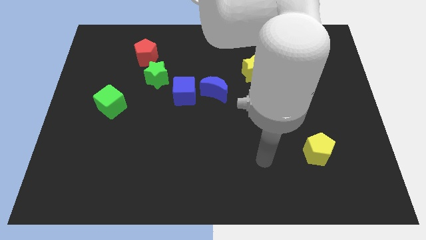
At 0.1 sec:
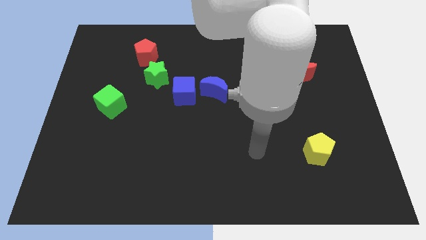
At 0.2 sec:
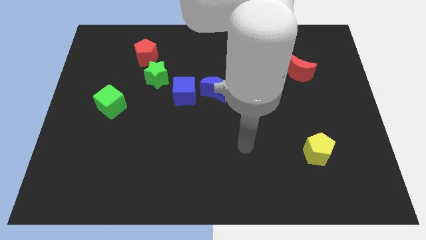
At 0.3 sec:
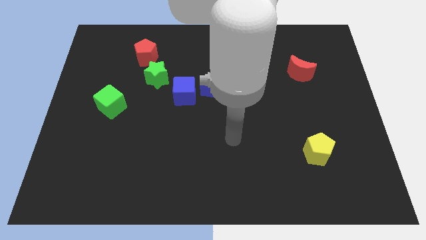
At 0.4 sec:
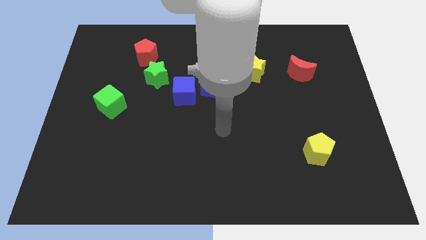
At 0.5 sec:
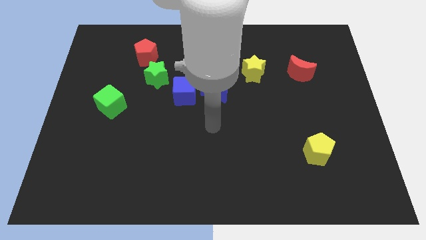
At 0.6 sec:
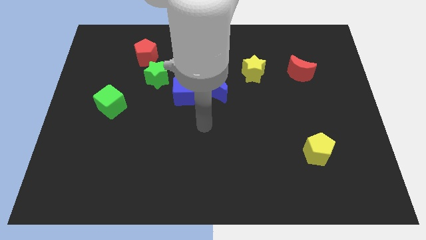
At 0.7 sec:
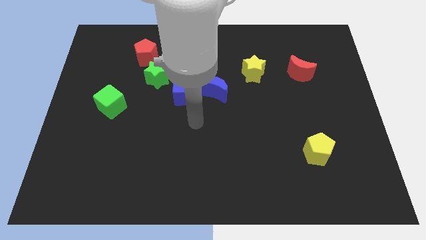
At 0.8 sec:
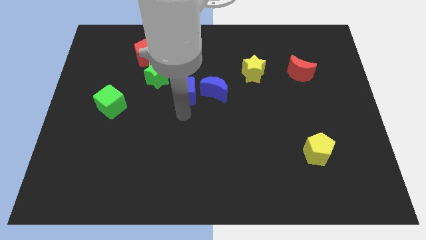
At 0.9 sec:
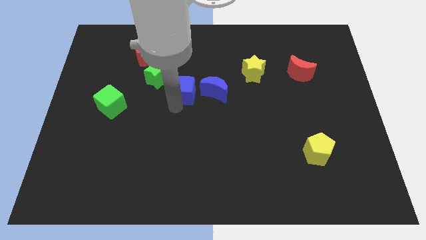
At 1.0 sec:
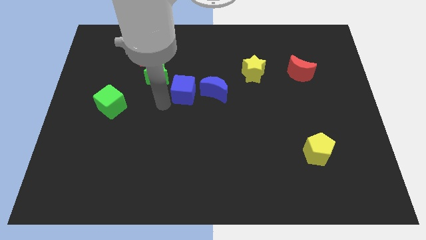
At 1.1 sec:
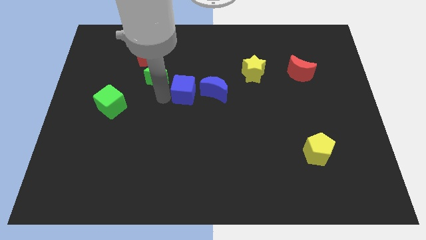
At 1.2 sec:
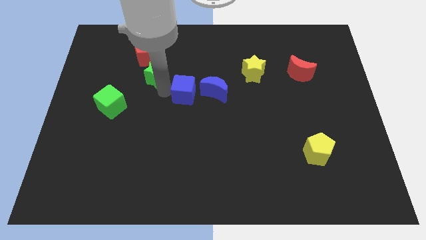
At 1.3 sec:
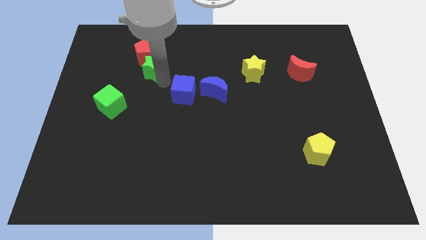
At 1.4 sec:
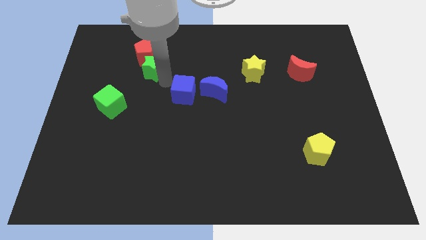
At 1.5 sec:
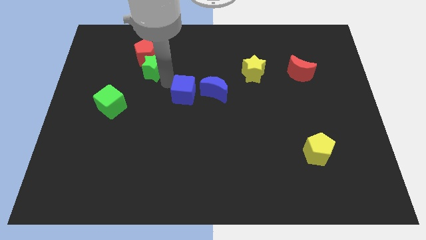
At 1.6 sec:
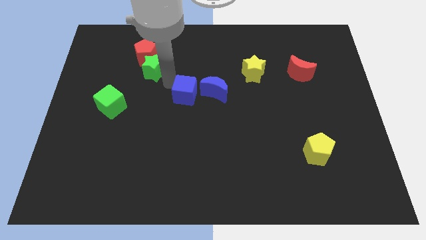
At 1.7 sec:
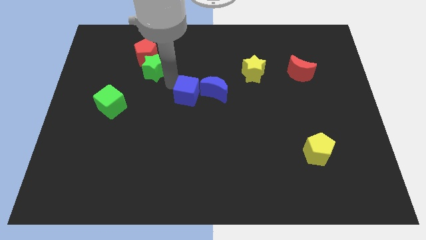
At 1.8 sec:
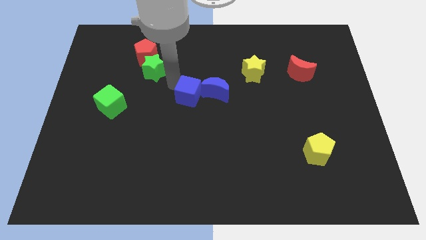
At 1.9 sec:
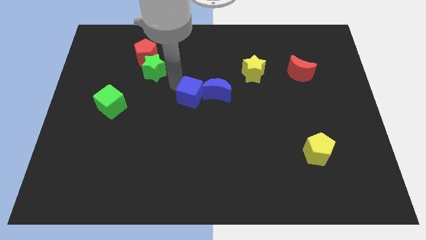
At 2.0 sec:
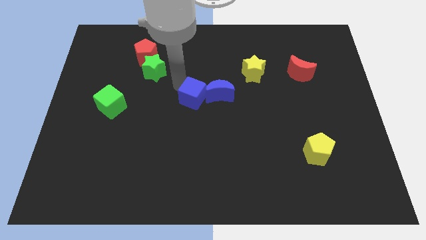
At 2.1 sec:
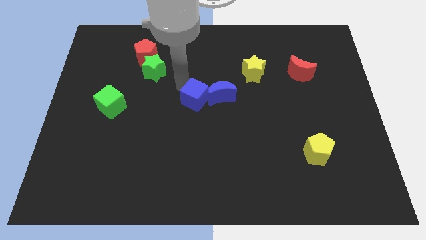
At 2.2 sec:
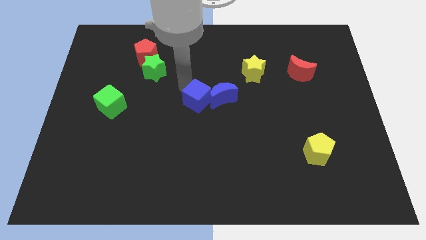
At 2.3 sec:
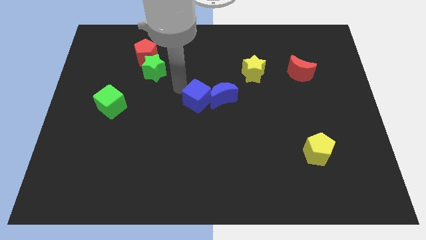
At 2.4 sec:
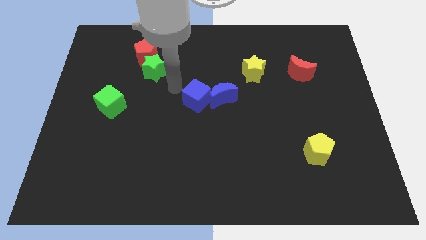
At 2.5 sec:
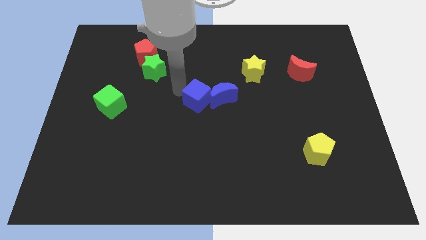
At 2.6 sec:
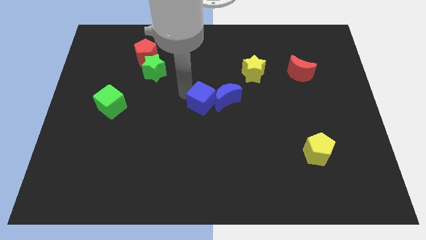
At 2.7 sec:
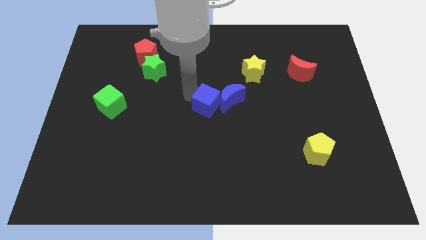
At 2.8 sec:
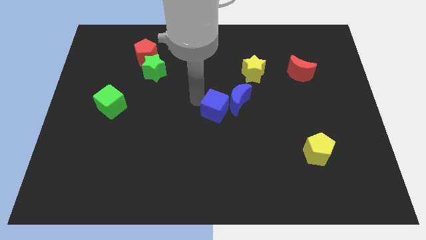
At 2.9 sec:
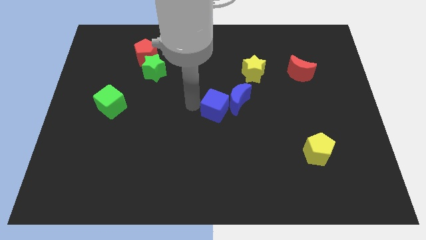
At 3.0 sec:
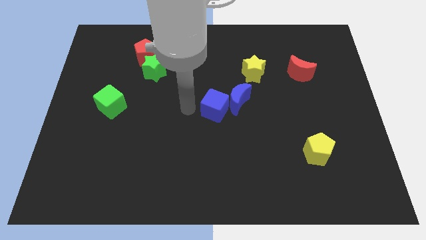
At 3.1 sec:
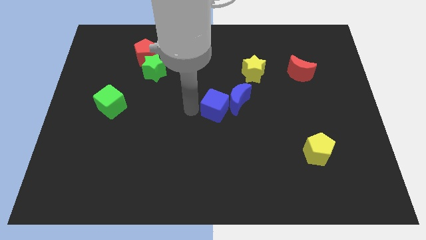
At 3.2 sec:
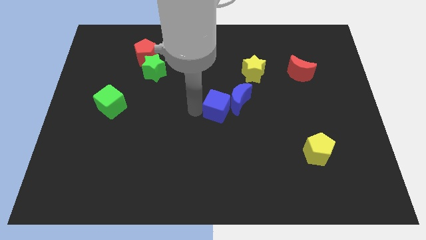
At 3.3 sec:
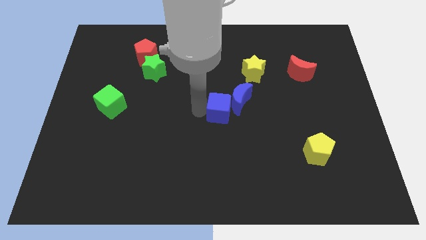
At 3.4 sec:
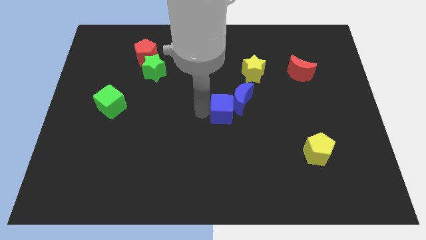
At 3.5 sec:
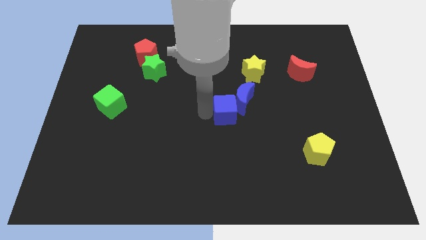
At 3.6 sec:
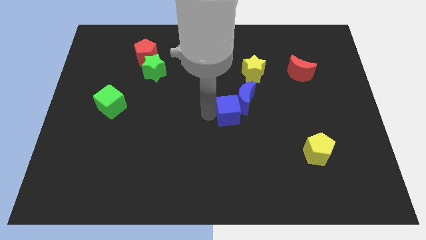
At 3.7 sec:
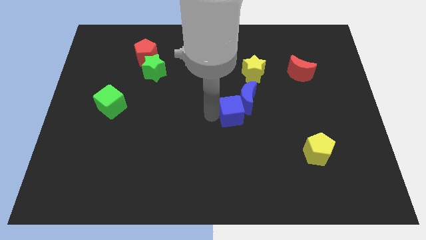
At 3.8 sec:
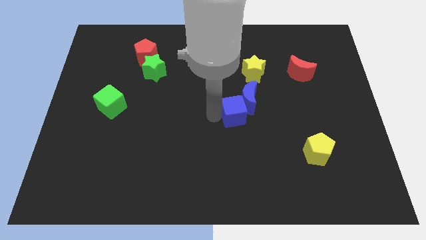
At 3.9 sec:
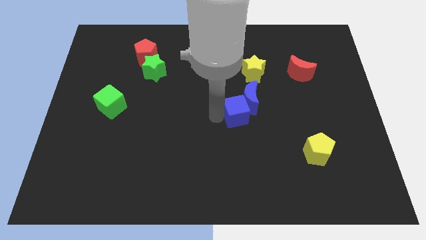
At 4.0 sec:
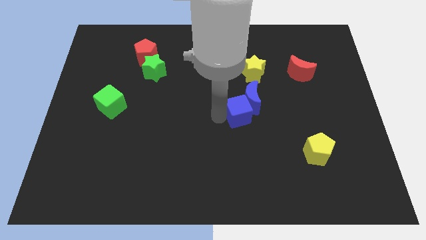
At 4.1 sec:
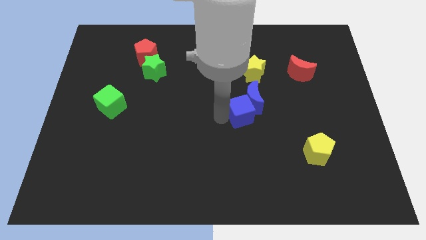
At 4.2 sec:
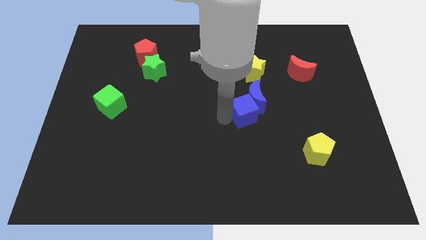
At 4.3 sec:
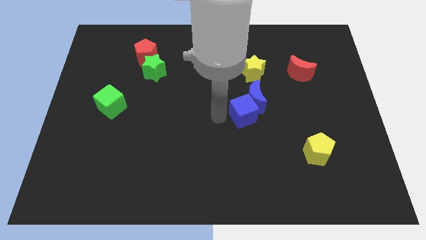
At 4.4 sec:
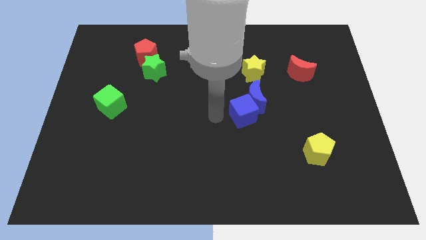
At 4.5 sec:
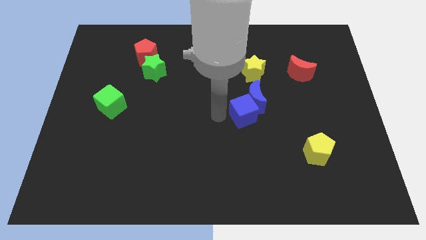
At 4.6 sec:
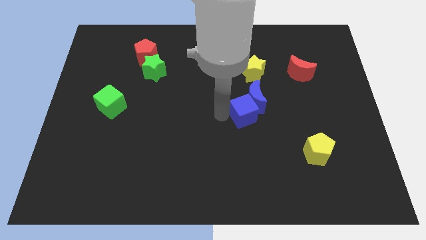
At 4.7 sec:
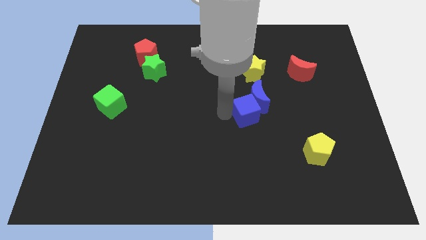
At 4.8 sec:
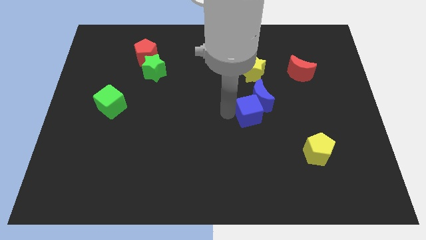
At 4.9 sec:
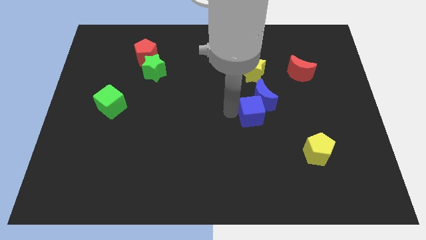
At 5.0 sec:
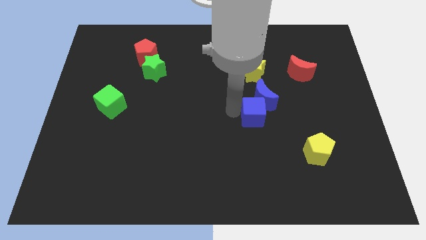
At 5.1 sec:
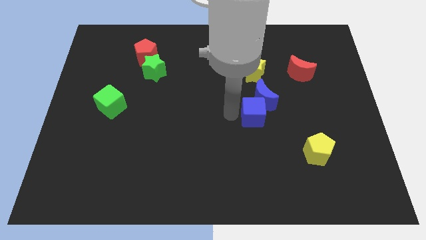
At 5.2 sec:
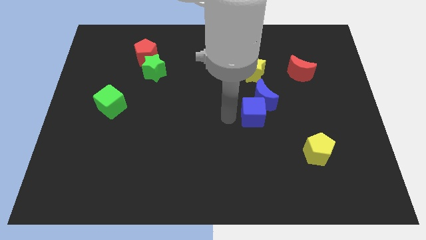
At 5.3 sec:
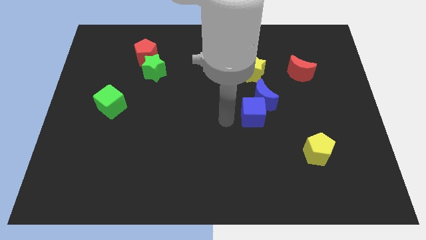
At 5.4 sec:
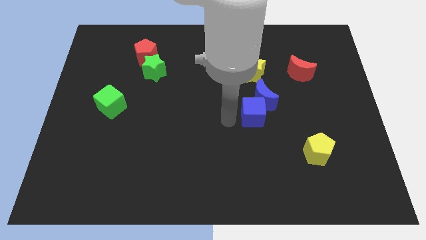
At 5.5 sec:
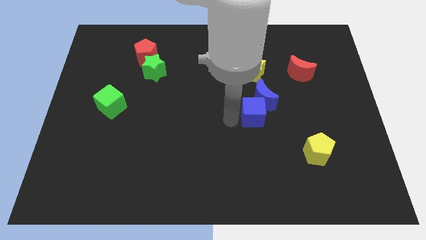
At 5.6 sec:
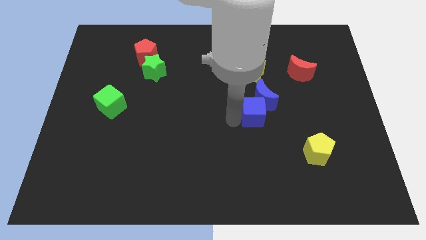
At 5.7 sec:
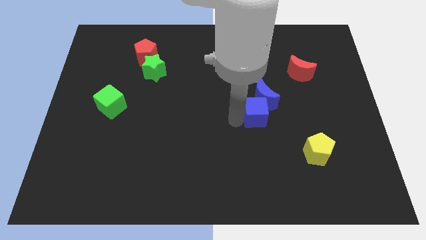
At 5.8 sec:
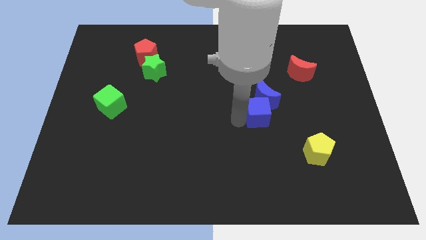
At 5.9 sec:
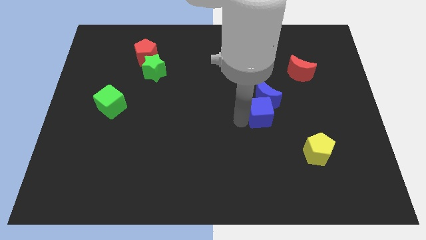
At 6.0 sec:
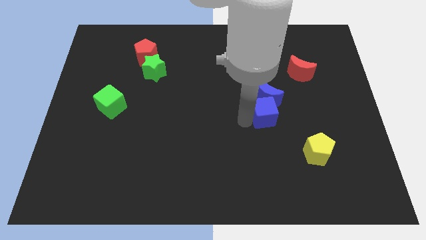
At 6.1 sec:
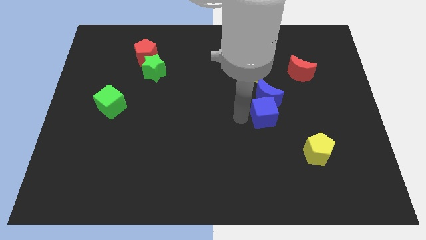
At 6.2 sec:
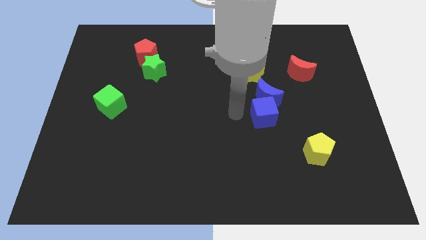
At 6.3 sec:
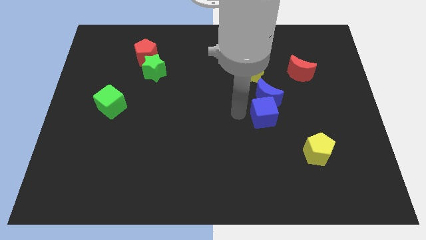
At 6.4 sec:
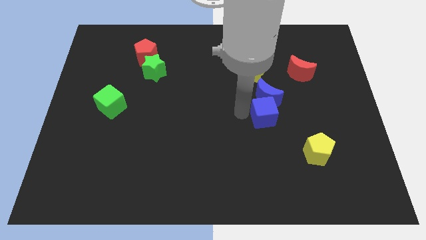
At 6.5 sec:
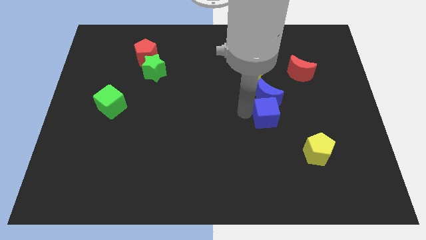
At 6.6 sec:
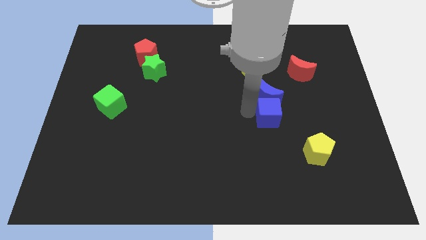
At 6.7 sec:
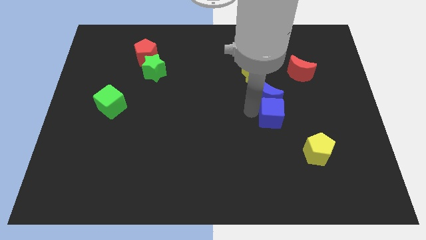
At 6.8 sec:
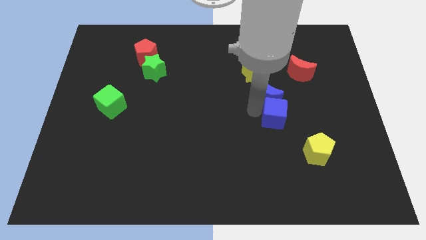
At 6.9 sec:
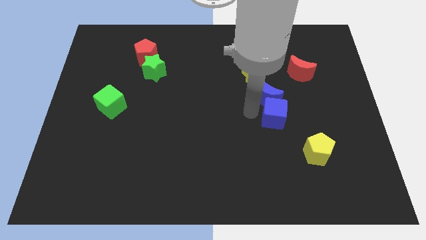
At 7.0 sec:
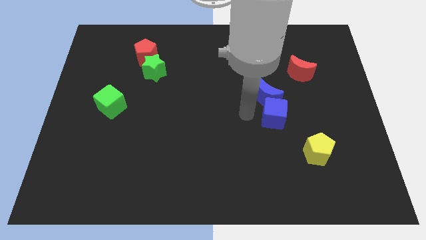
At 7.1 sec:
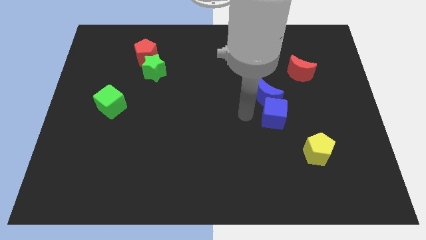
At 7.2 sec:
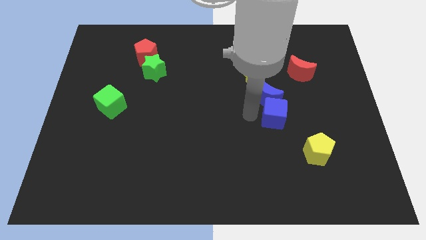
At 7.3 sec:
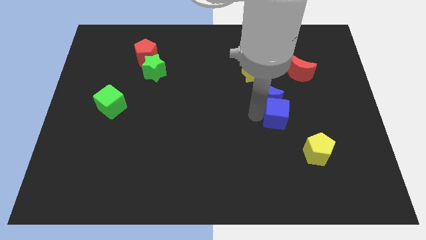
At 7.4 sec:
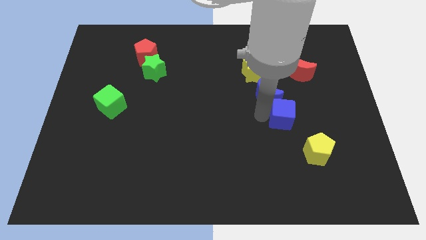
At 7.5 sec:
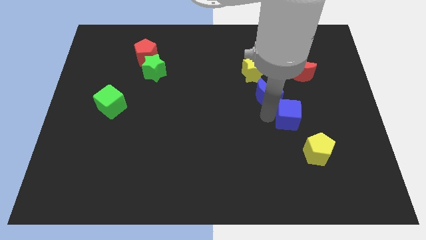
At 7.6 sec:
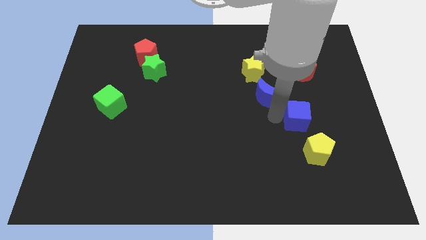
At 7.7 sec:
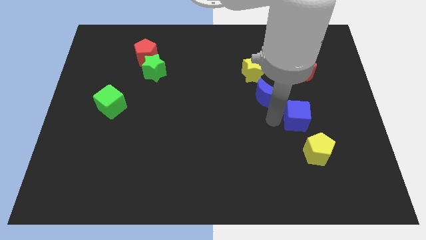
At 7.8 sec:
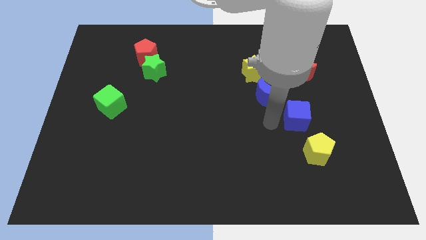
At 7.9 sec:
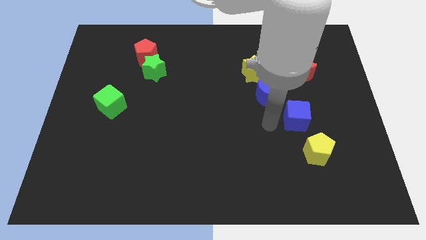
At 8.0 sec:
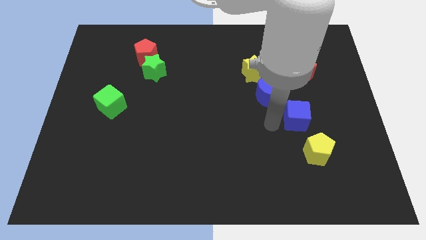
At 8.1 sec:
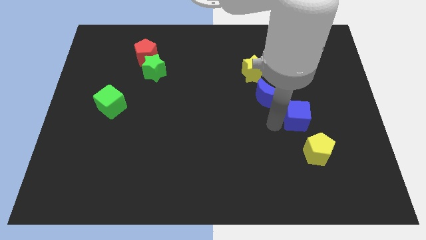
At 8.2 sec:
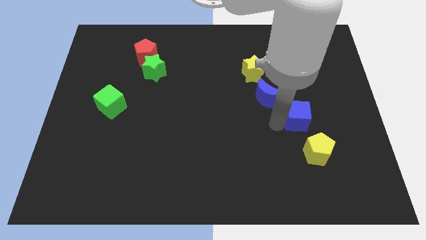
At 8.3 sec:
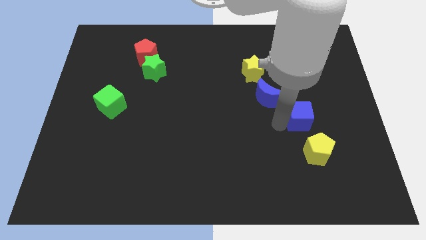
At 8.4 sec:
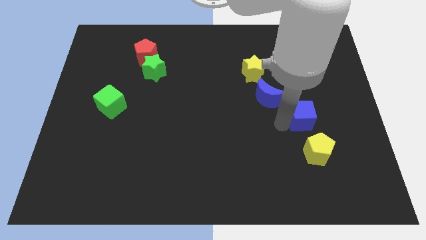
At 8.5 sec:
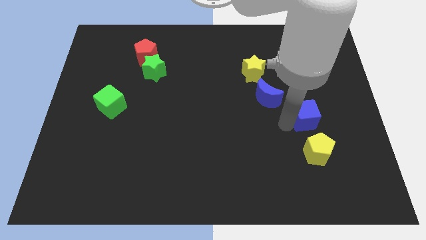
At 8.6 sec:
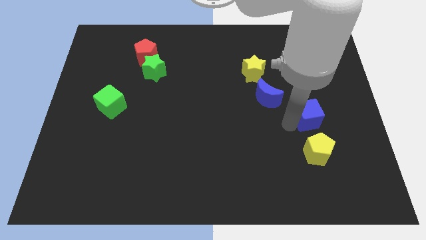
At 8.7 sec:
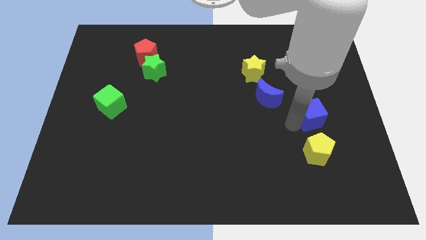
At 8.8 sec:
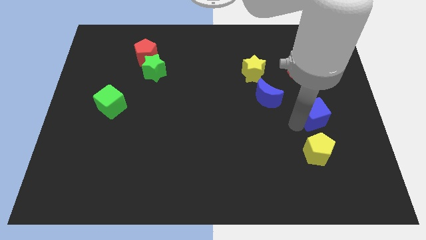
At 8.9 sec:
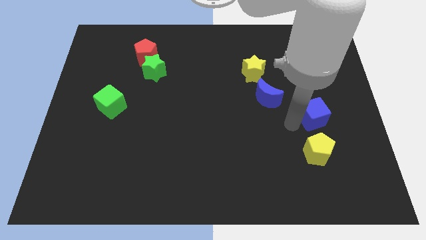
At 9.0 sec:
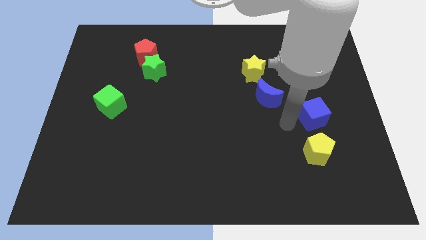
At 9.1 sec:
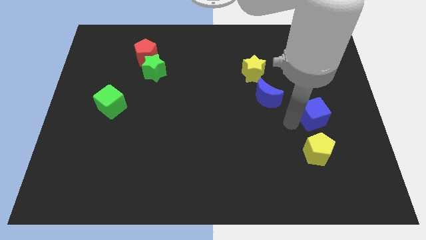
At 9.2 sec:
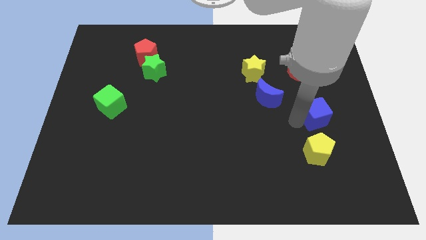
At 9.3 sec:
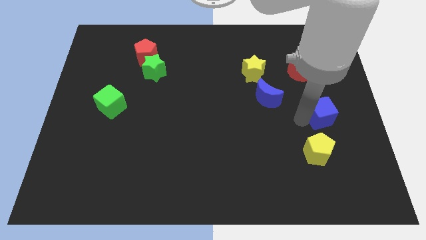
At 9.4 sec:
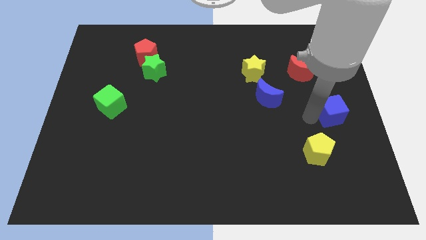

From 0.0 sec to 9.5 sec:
push the blue cube to the center right
